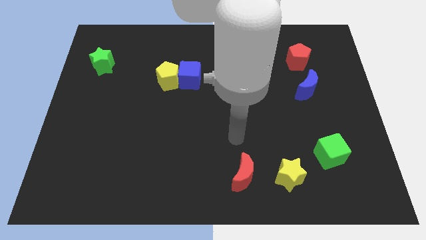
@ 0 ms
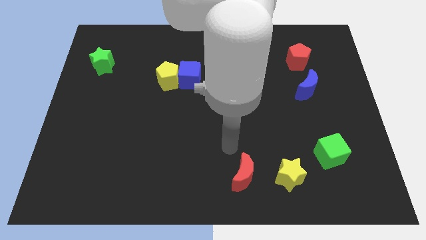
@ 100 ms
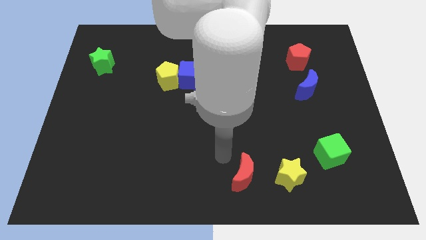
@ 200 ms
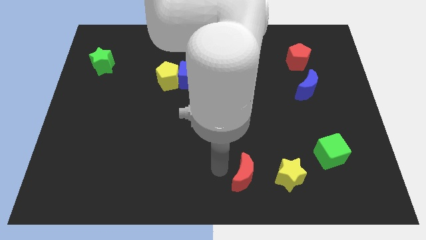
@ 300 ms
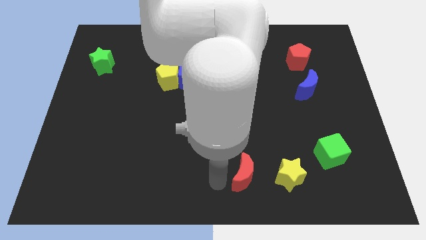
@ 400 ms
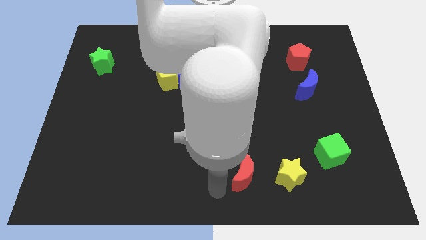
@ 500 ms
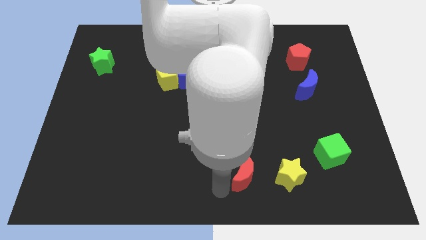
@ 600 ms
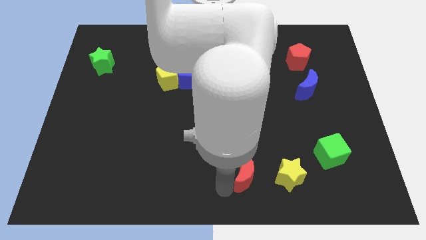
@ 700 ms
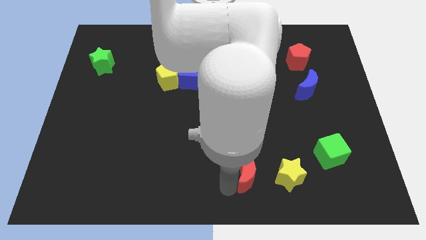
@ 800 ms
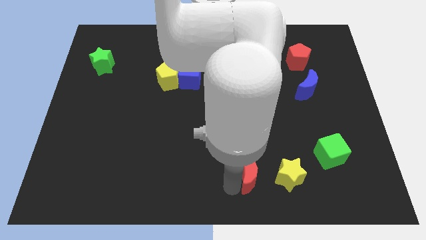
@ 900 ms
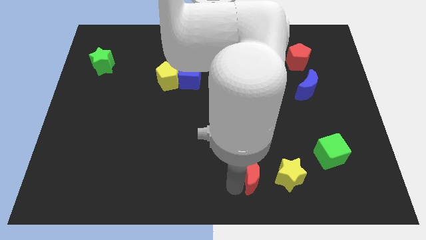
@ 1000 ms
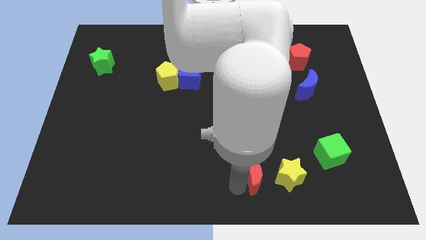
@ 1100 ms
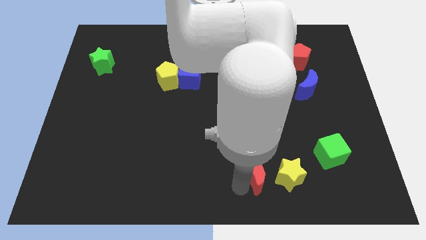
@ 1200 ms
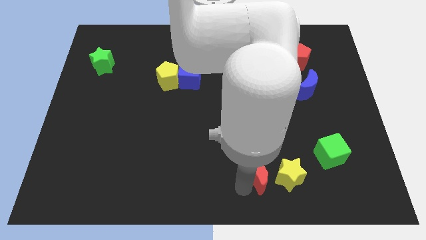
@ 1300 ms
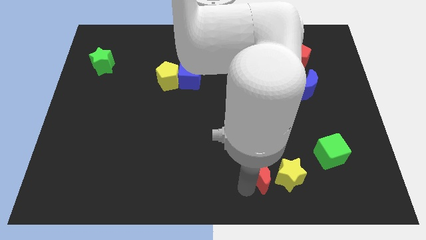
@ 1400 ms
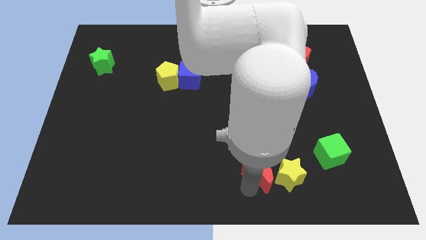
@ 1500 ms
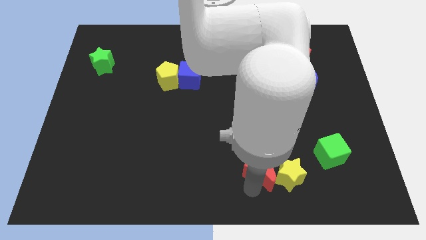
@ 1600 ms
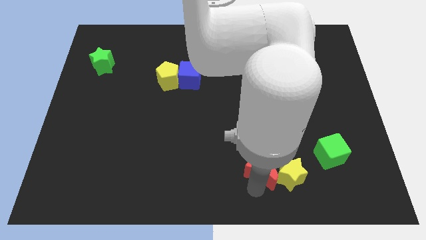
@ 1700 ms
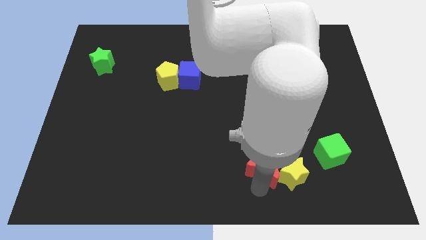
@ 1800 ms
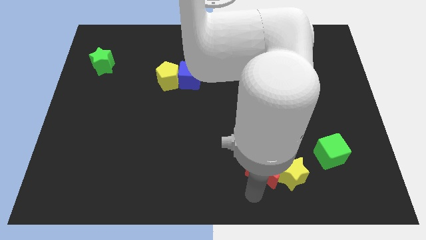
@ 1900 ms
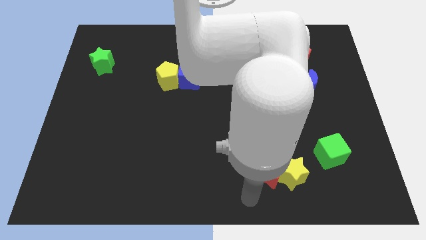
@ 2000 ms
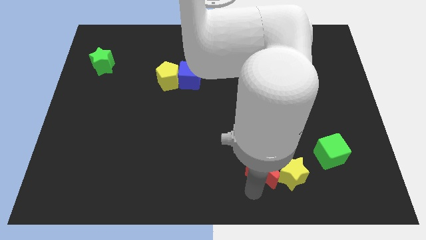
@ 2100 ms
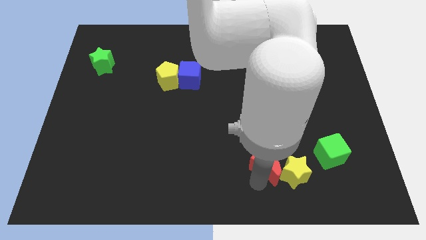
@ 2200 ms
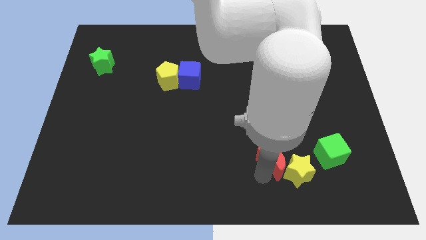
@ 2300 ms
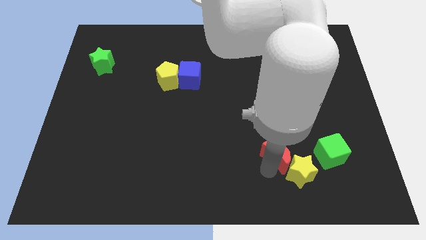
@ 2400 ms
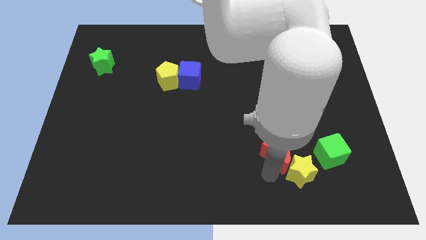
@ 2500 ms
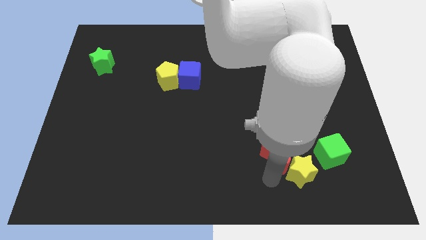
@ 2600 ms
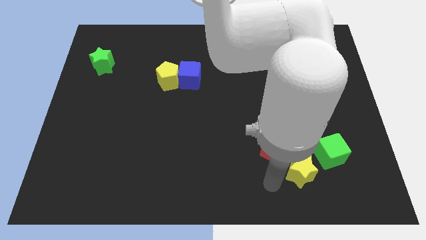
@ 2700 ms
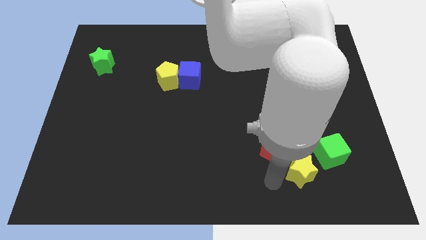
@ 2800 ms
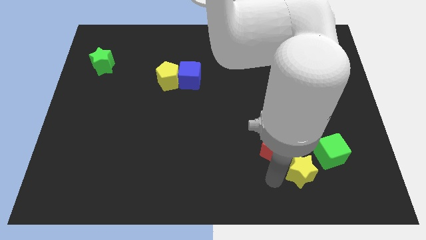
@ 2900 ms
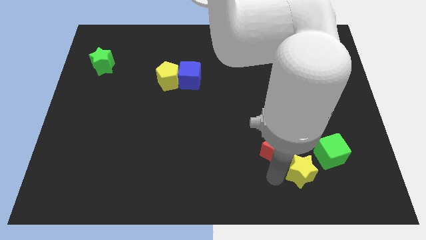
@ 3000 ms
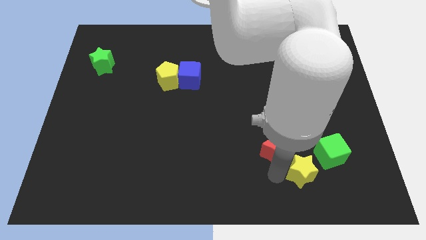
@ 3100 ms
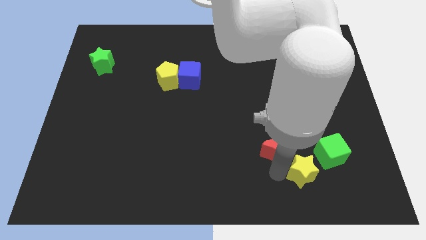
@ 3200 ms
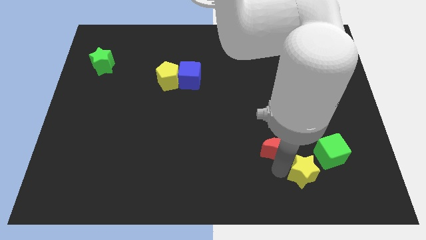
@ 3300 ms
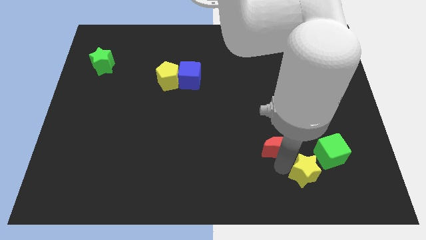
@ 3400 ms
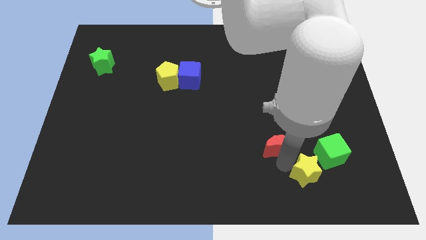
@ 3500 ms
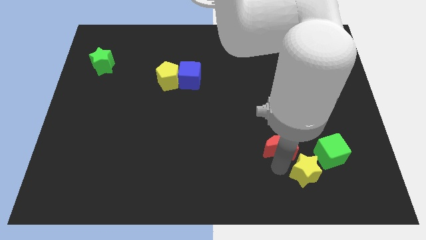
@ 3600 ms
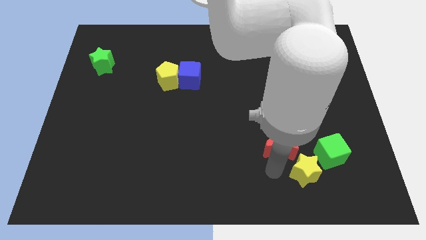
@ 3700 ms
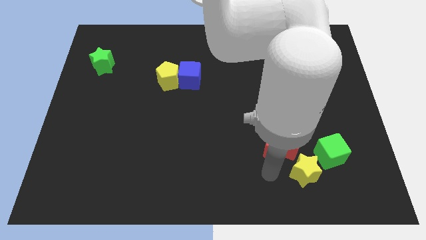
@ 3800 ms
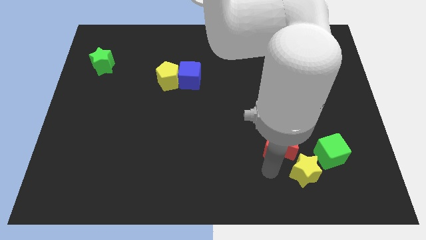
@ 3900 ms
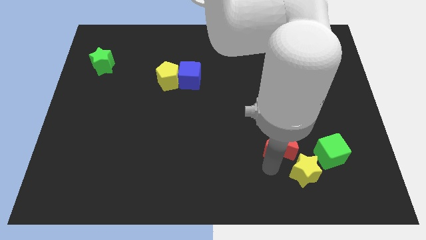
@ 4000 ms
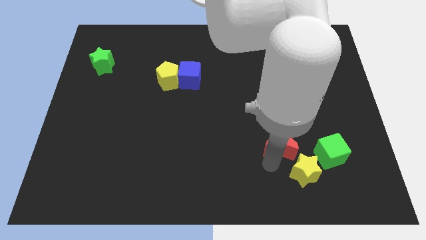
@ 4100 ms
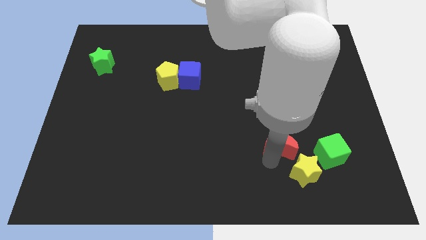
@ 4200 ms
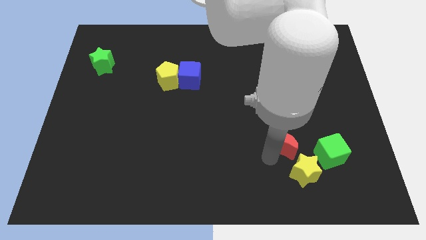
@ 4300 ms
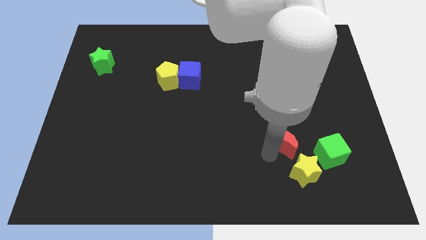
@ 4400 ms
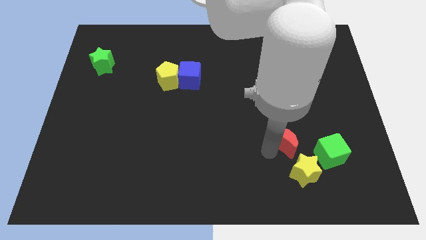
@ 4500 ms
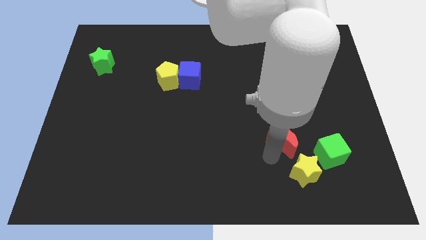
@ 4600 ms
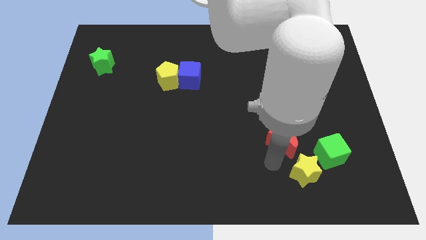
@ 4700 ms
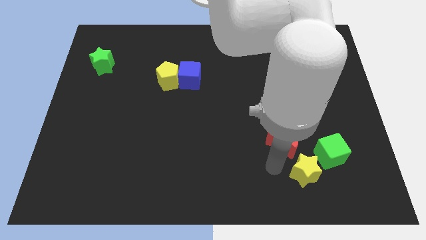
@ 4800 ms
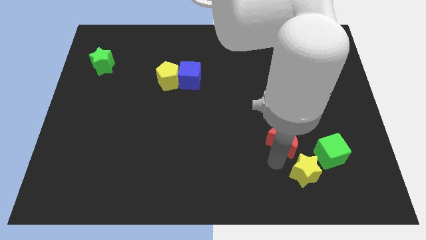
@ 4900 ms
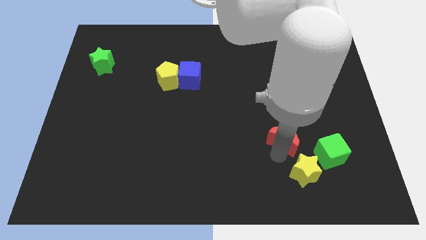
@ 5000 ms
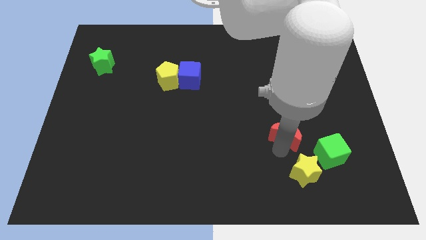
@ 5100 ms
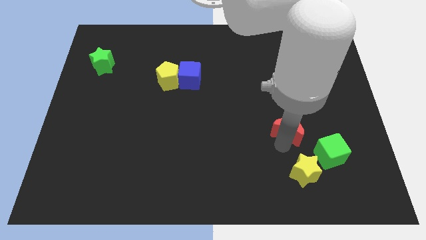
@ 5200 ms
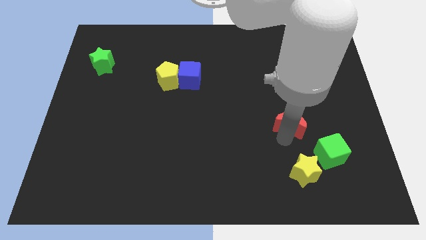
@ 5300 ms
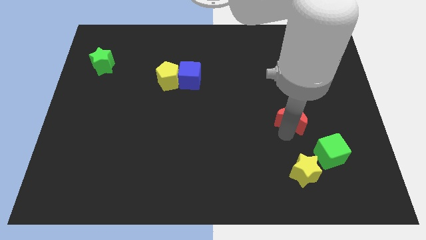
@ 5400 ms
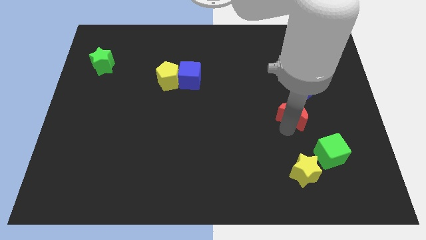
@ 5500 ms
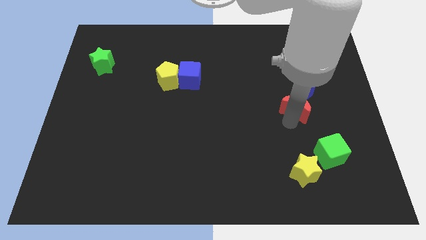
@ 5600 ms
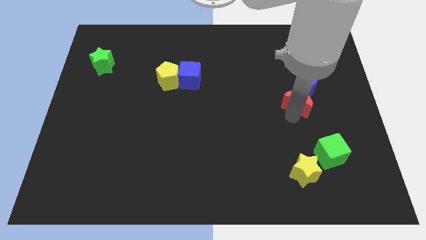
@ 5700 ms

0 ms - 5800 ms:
put the red moon close to the blue moon

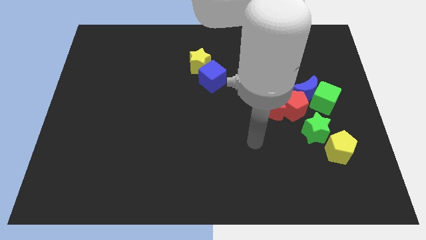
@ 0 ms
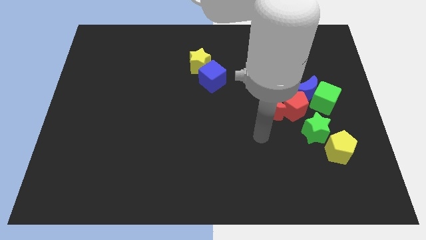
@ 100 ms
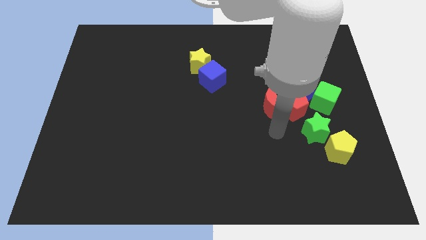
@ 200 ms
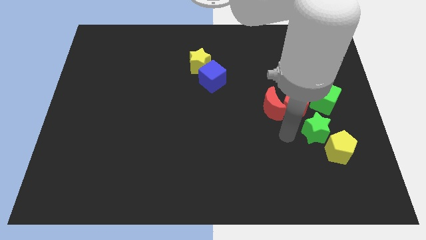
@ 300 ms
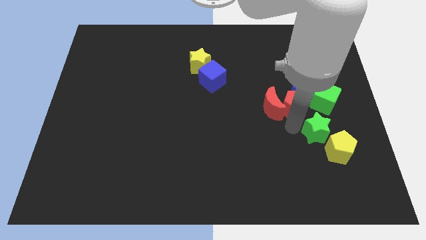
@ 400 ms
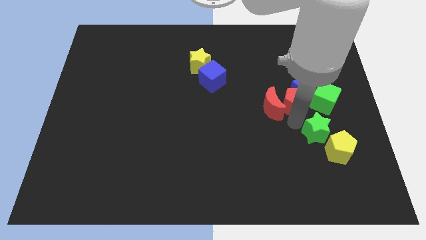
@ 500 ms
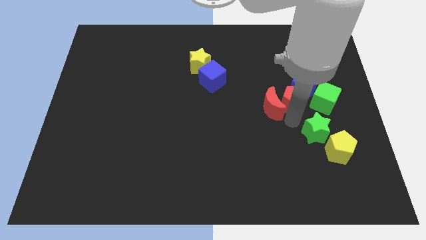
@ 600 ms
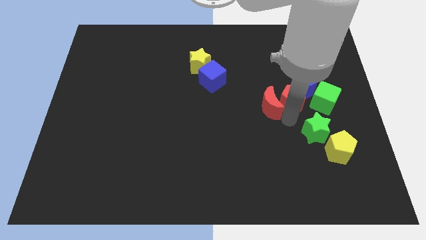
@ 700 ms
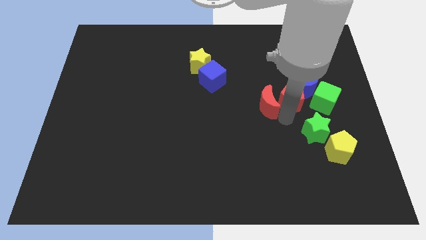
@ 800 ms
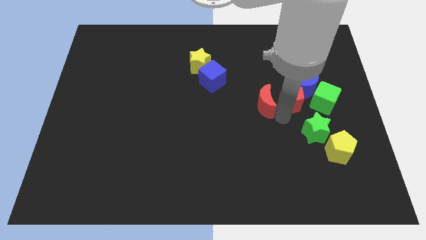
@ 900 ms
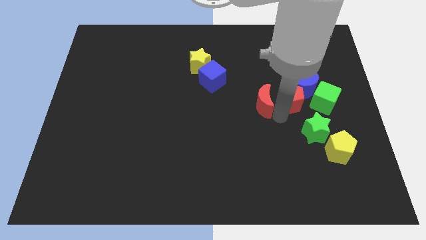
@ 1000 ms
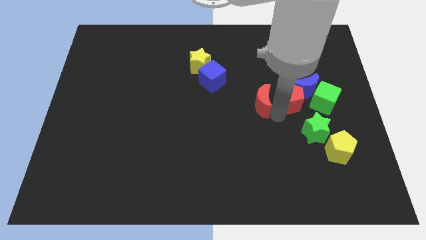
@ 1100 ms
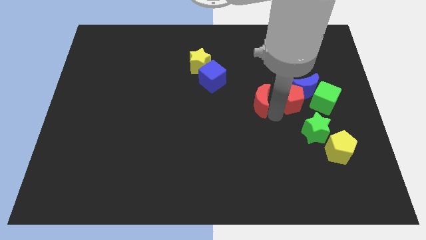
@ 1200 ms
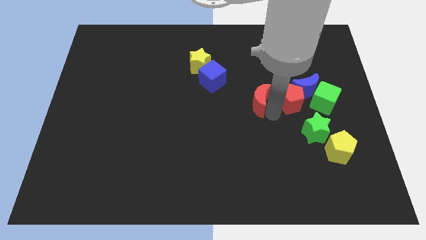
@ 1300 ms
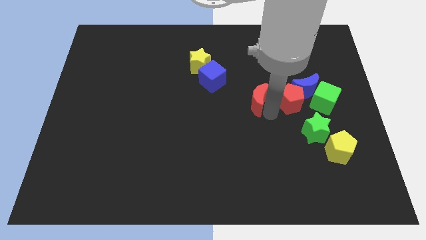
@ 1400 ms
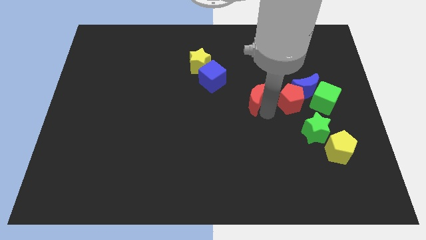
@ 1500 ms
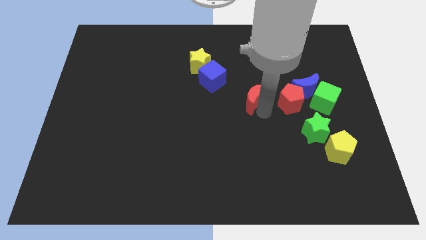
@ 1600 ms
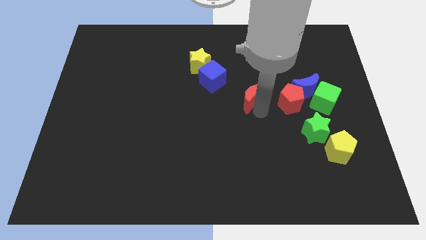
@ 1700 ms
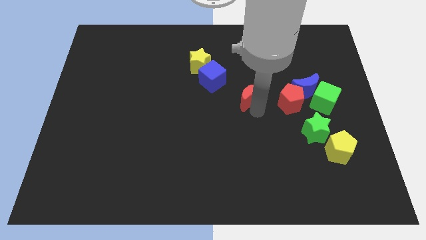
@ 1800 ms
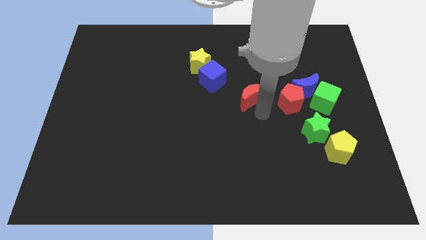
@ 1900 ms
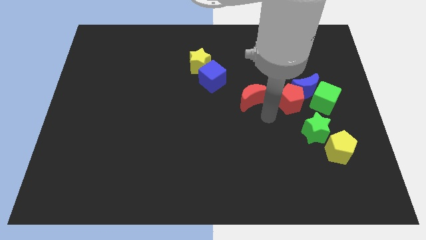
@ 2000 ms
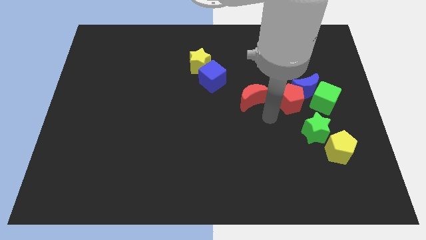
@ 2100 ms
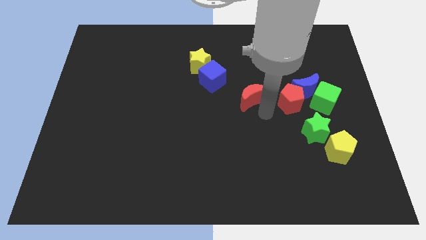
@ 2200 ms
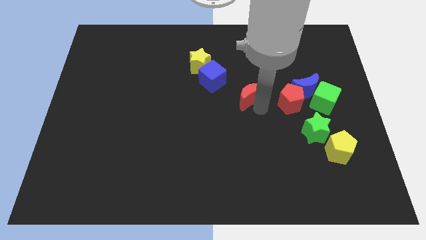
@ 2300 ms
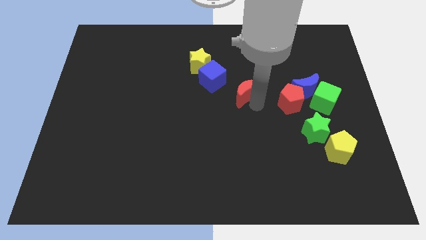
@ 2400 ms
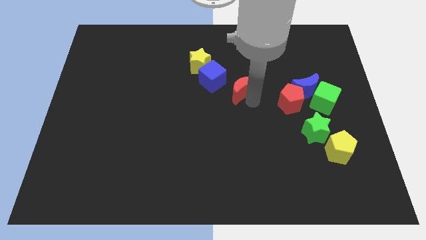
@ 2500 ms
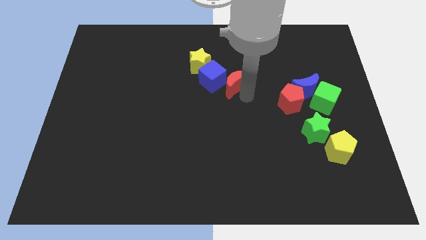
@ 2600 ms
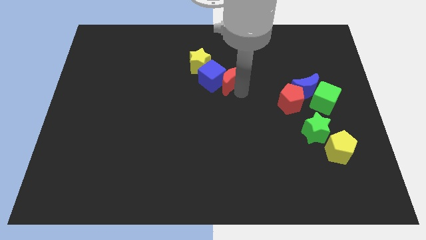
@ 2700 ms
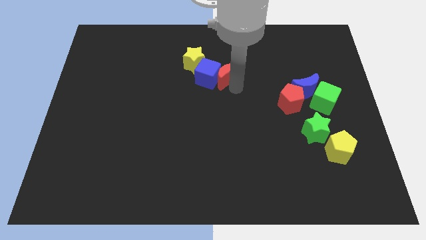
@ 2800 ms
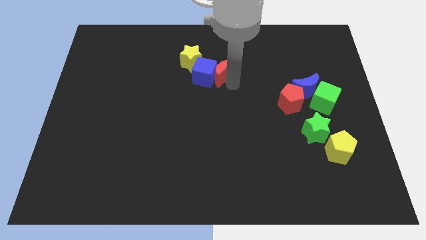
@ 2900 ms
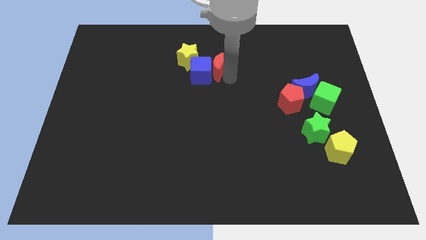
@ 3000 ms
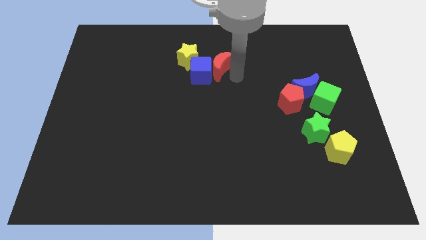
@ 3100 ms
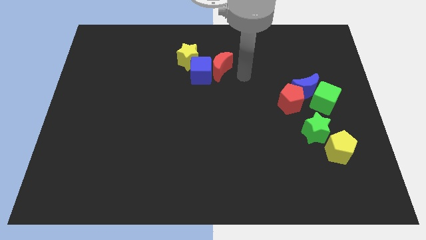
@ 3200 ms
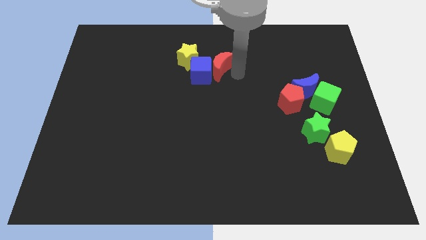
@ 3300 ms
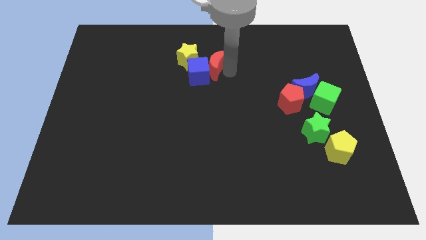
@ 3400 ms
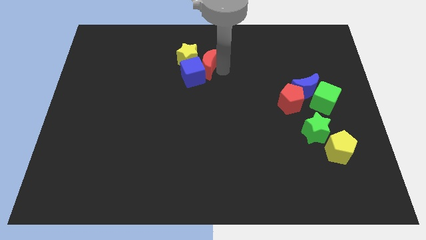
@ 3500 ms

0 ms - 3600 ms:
push the red moon close to the yellow star
